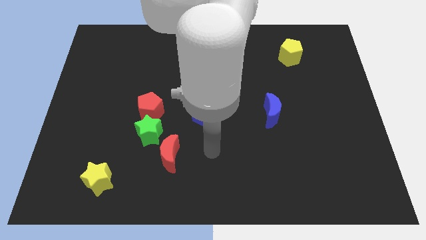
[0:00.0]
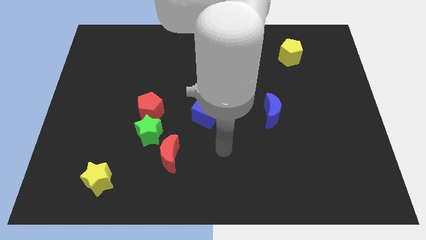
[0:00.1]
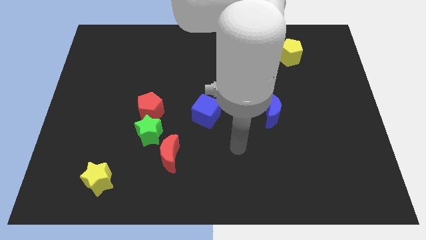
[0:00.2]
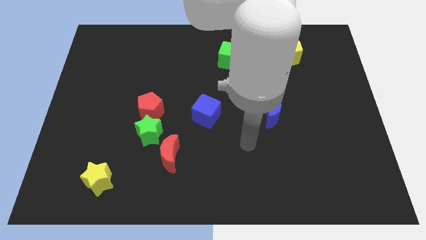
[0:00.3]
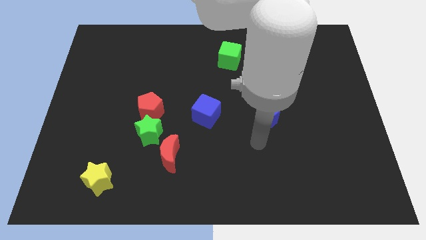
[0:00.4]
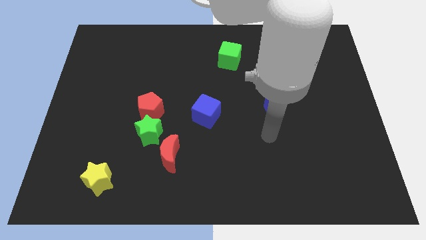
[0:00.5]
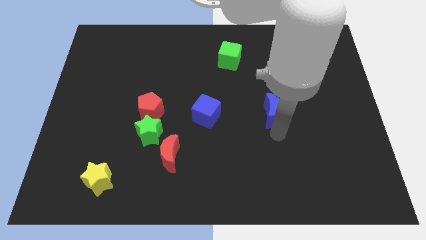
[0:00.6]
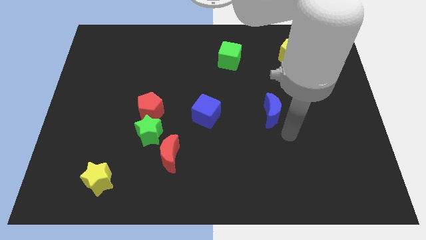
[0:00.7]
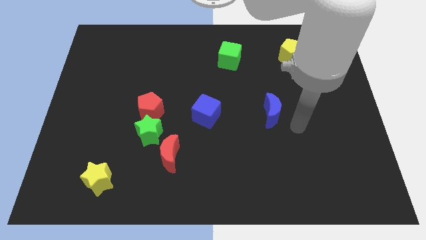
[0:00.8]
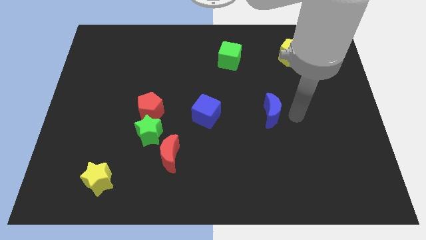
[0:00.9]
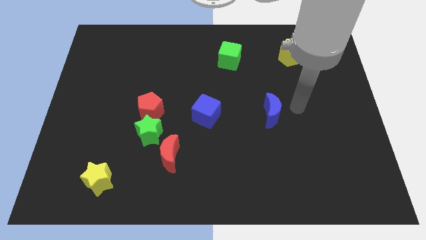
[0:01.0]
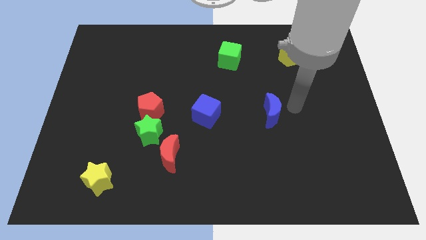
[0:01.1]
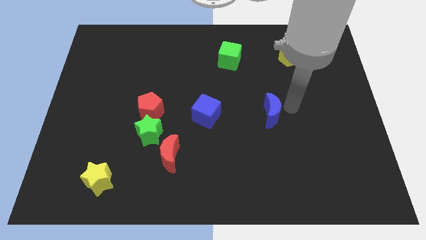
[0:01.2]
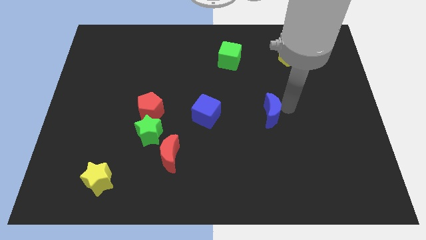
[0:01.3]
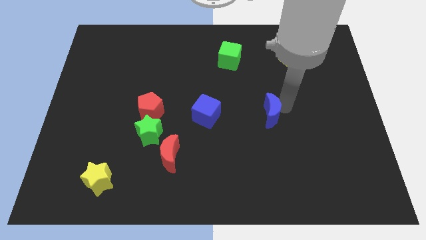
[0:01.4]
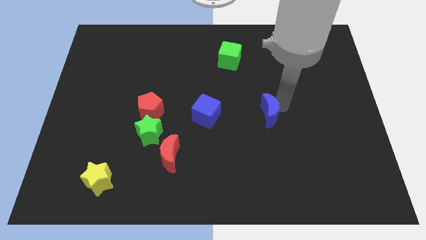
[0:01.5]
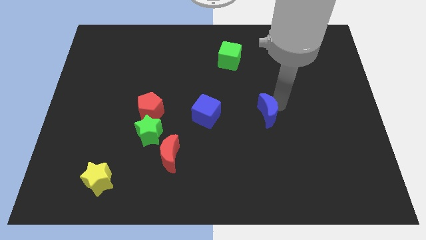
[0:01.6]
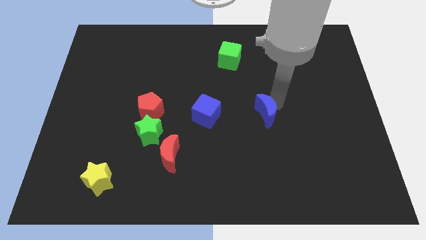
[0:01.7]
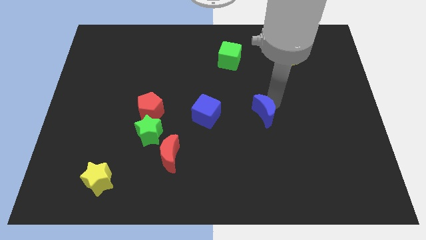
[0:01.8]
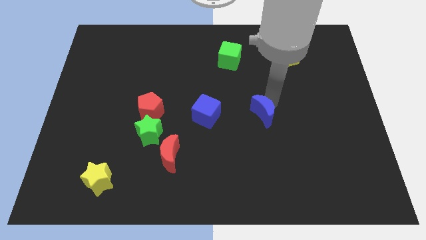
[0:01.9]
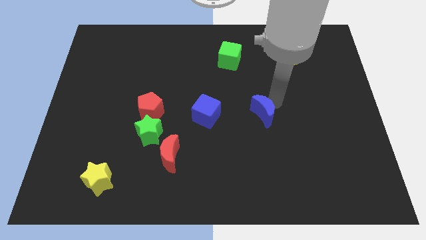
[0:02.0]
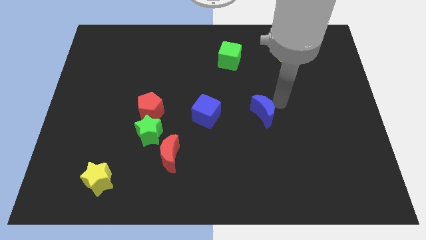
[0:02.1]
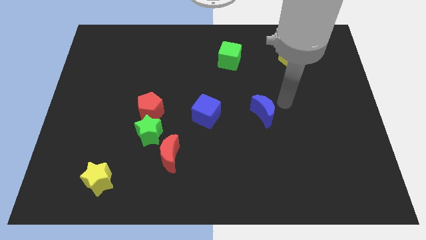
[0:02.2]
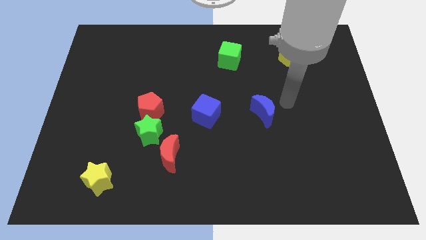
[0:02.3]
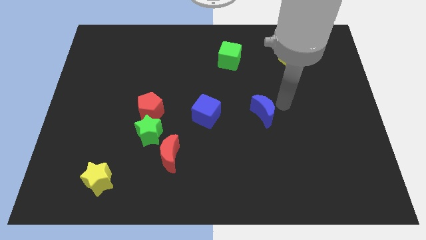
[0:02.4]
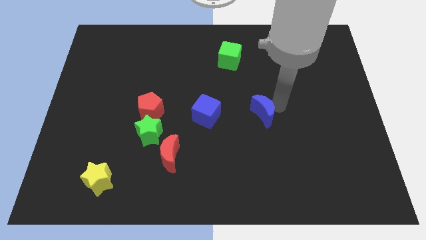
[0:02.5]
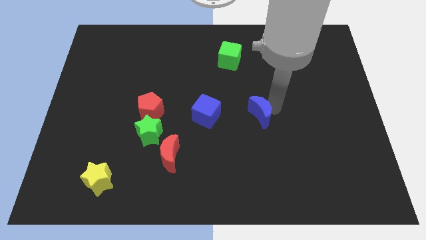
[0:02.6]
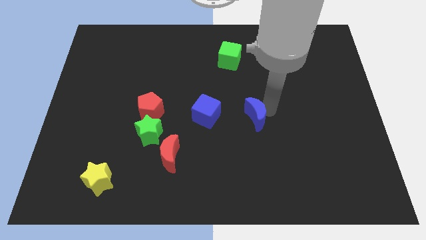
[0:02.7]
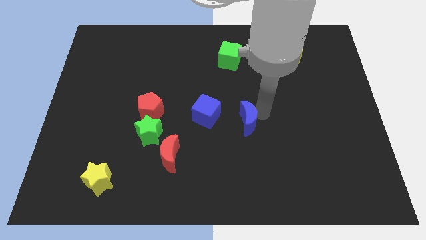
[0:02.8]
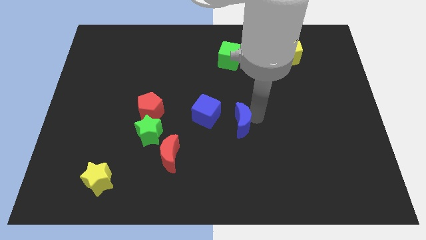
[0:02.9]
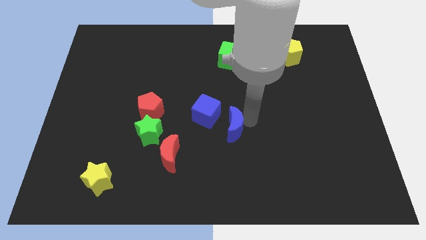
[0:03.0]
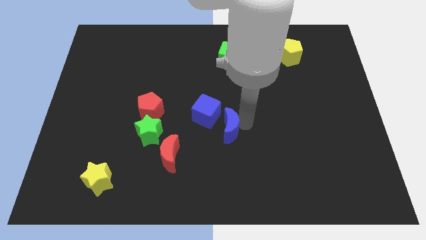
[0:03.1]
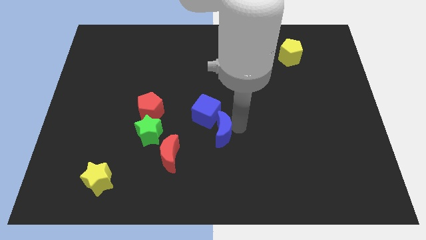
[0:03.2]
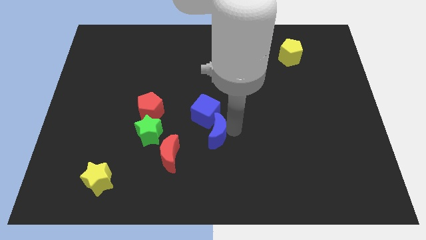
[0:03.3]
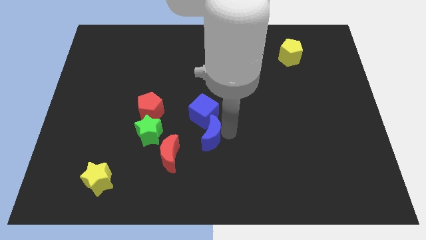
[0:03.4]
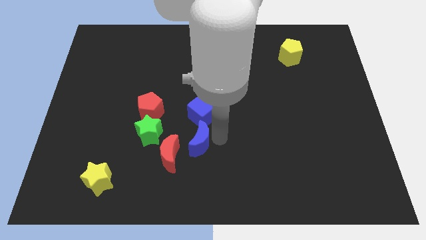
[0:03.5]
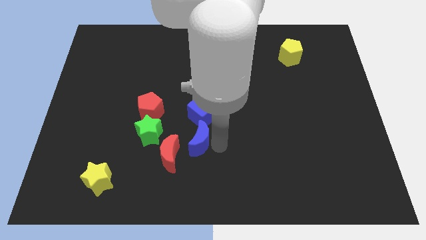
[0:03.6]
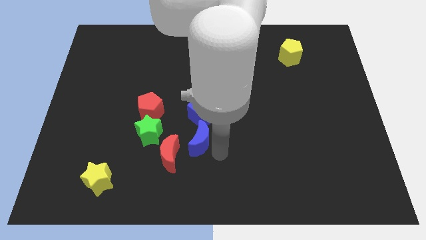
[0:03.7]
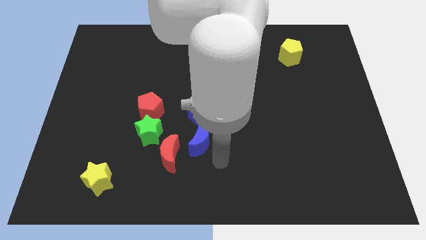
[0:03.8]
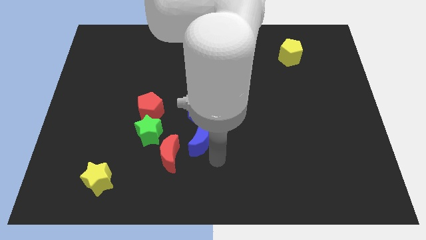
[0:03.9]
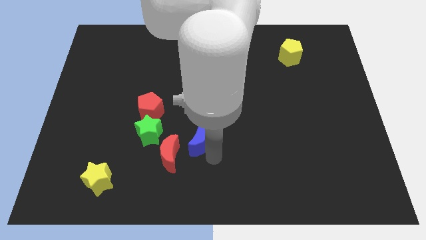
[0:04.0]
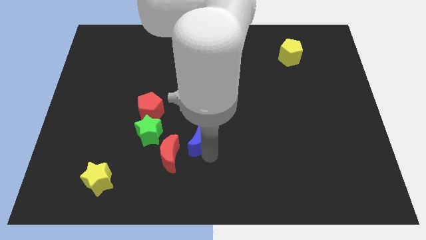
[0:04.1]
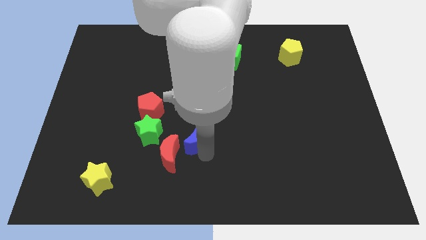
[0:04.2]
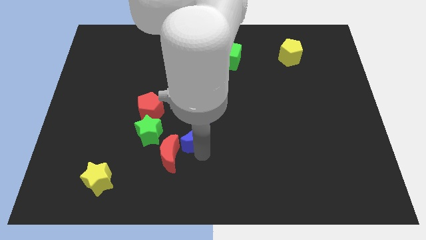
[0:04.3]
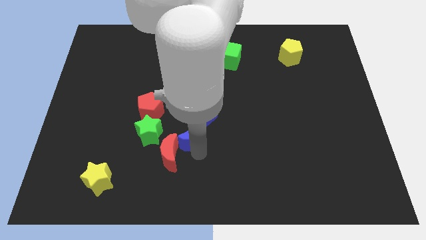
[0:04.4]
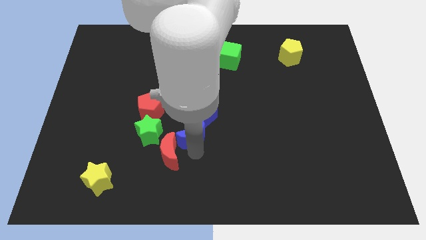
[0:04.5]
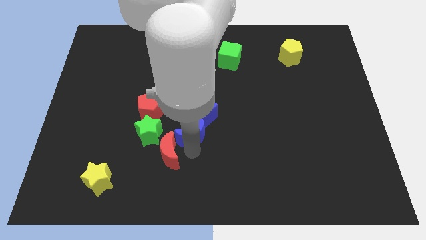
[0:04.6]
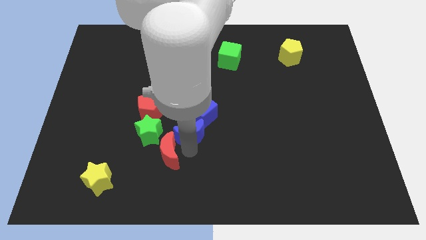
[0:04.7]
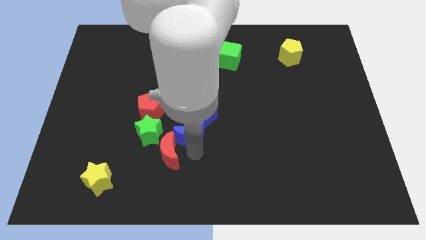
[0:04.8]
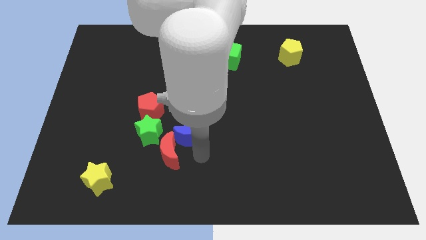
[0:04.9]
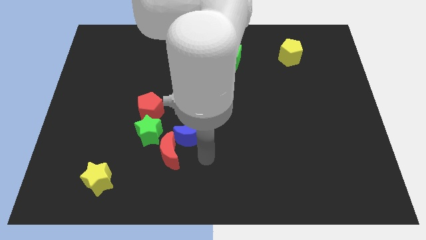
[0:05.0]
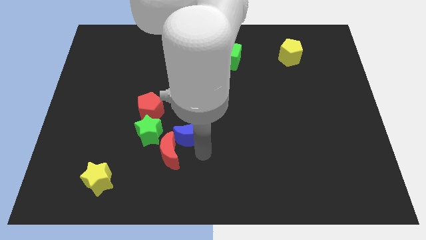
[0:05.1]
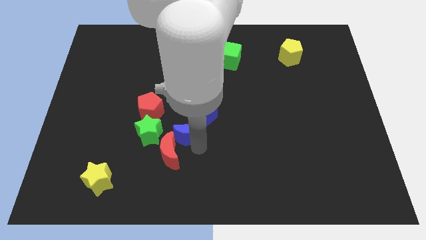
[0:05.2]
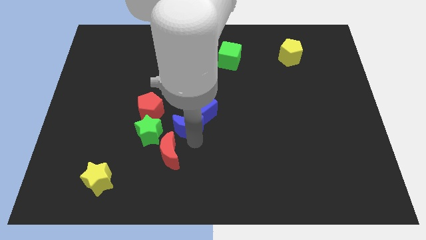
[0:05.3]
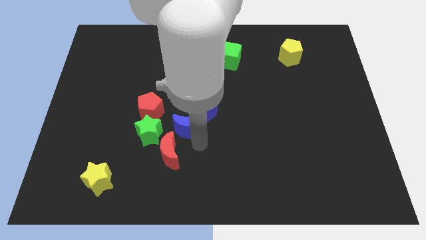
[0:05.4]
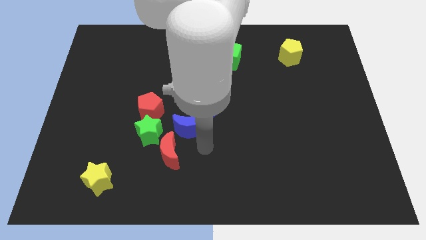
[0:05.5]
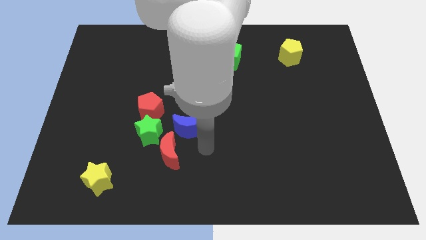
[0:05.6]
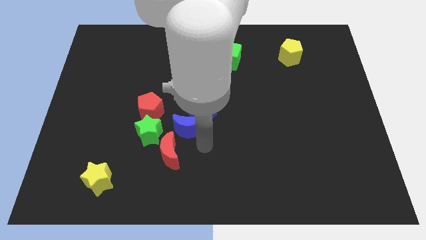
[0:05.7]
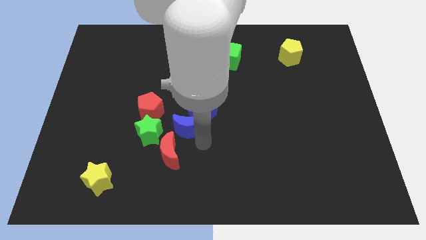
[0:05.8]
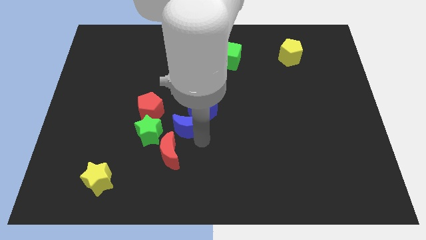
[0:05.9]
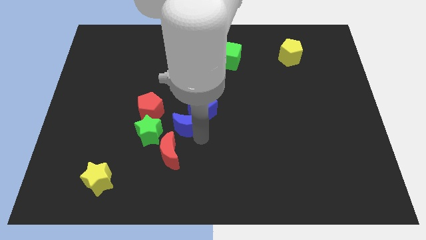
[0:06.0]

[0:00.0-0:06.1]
put the blue moon diagonally up and to the right of the green star
